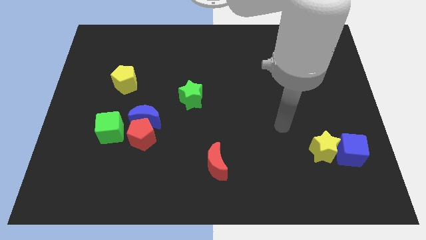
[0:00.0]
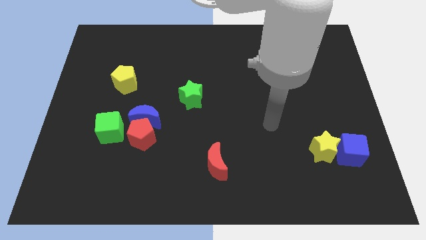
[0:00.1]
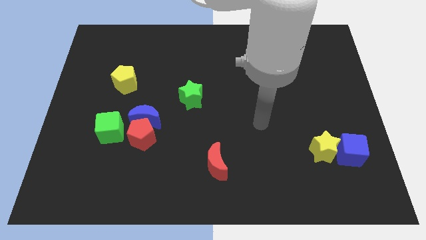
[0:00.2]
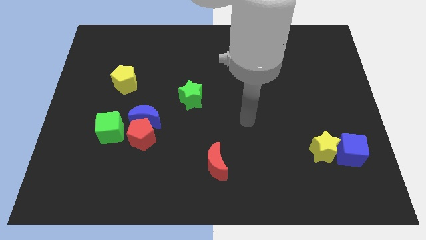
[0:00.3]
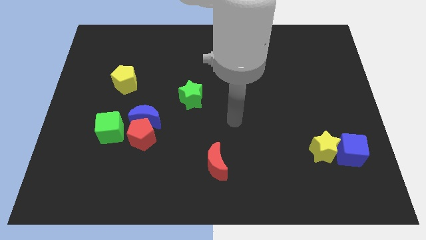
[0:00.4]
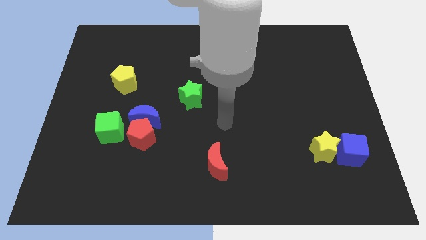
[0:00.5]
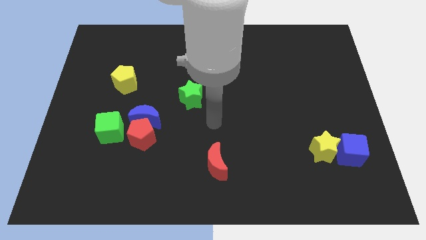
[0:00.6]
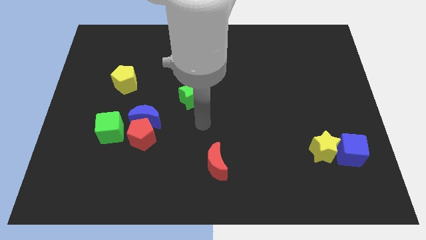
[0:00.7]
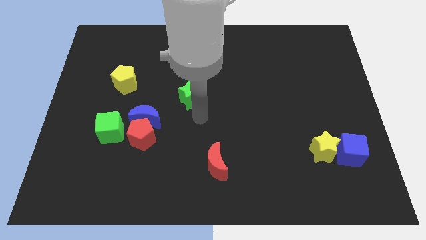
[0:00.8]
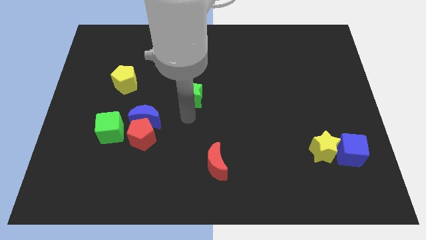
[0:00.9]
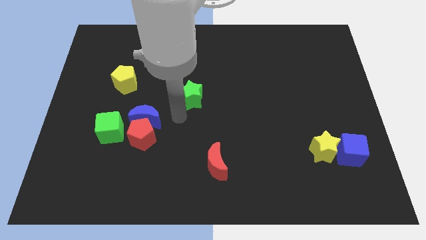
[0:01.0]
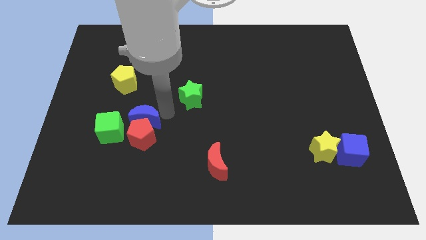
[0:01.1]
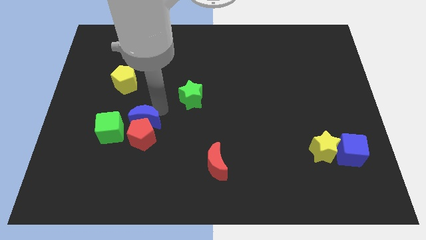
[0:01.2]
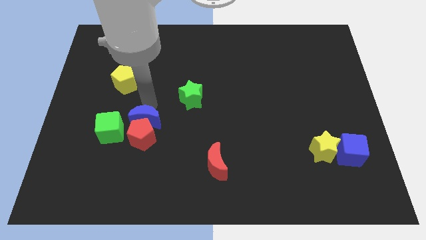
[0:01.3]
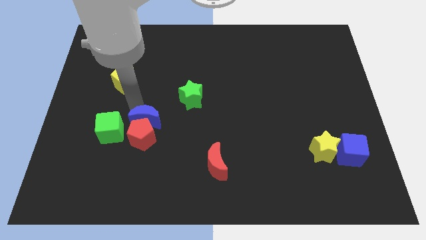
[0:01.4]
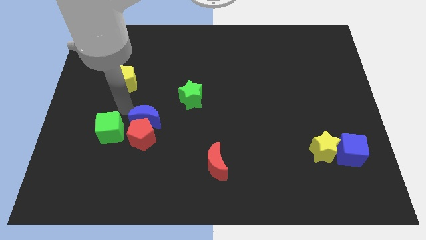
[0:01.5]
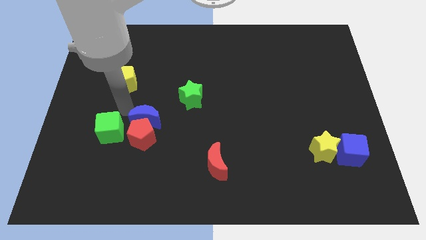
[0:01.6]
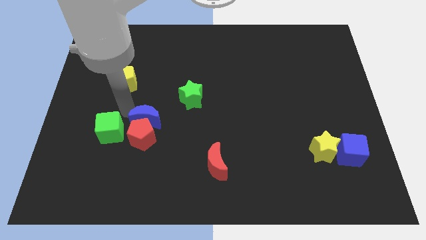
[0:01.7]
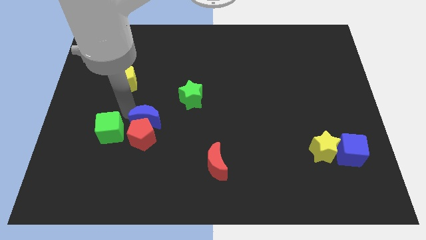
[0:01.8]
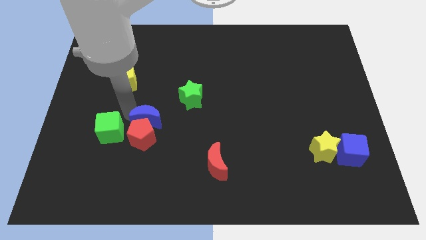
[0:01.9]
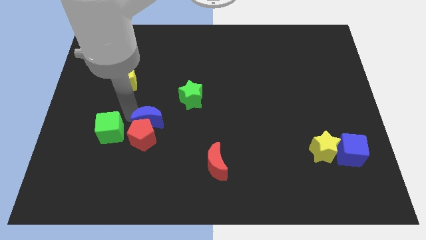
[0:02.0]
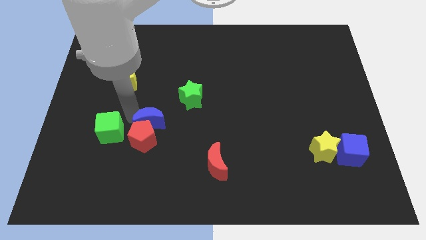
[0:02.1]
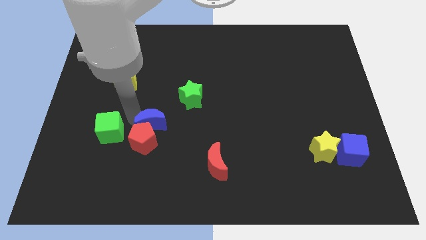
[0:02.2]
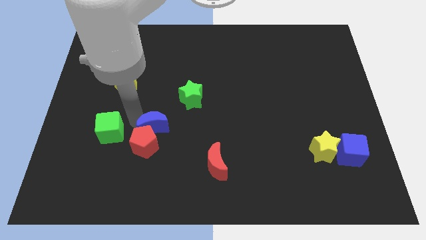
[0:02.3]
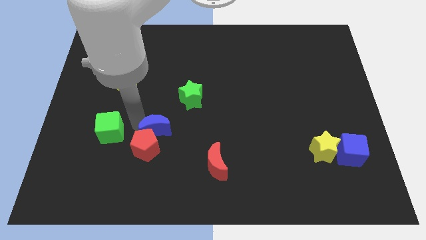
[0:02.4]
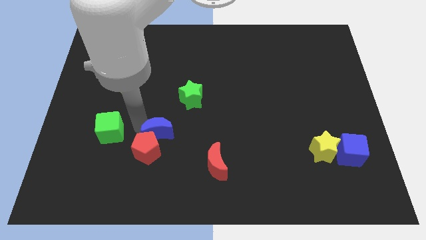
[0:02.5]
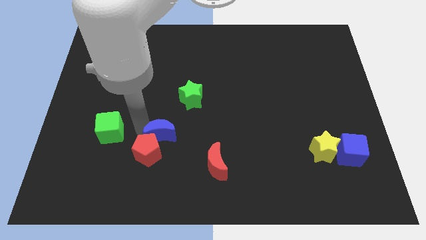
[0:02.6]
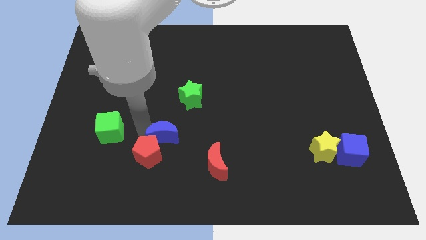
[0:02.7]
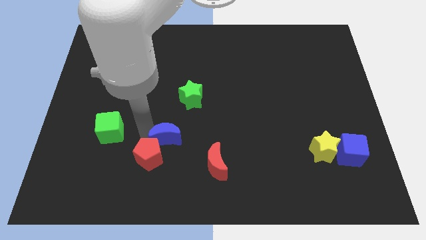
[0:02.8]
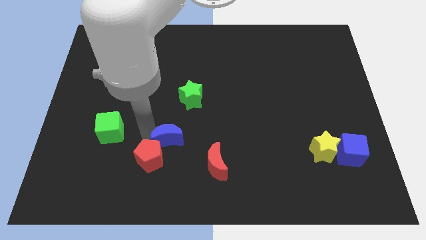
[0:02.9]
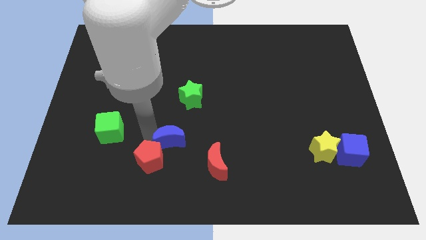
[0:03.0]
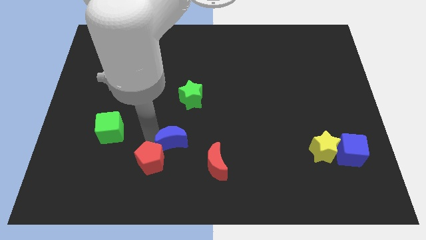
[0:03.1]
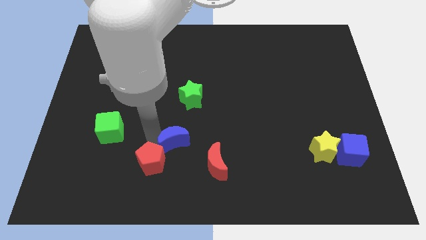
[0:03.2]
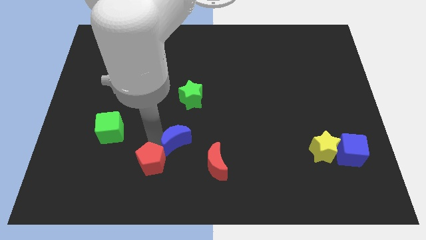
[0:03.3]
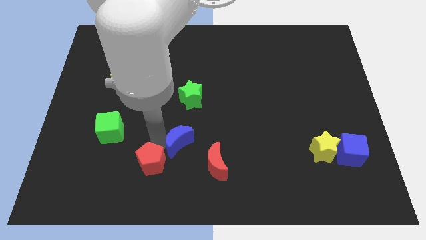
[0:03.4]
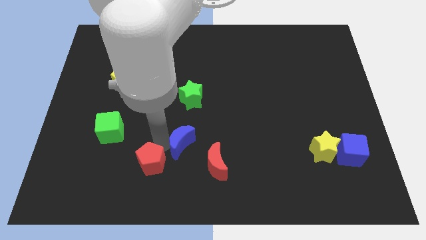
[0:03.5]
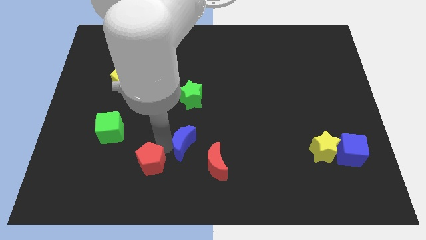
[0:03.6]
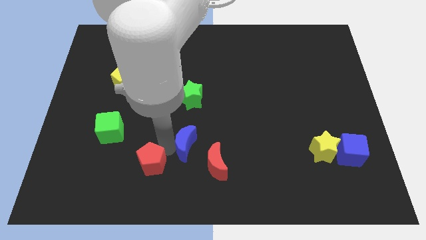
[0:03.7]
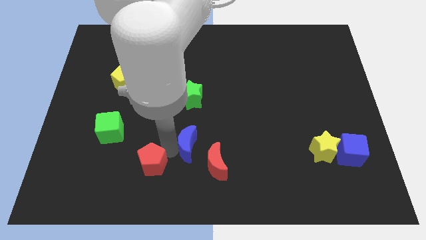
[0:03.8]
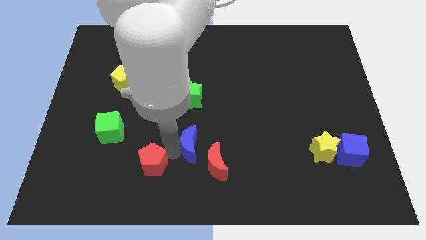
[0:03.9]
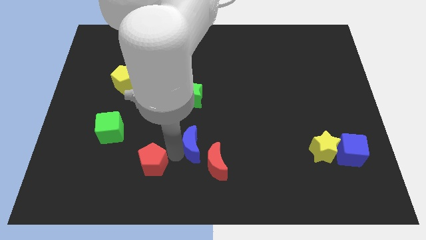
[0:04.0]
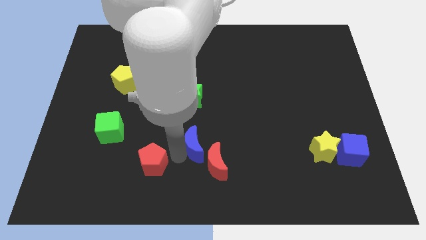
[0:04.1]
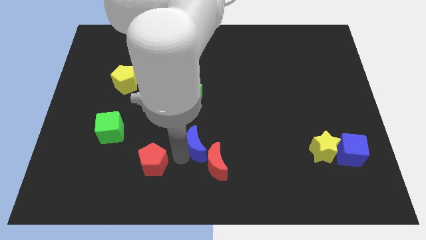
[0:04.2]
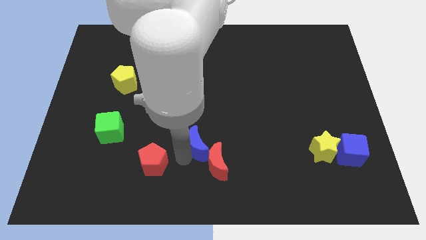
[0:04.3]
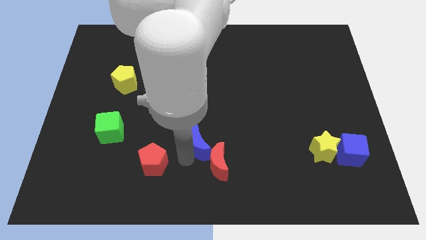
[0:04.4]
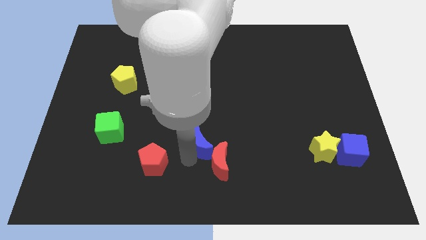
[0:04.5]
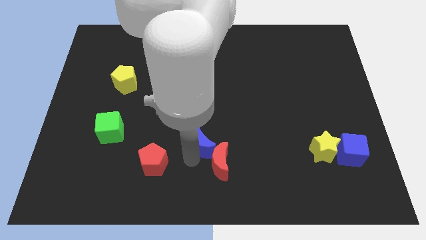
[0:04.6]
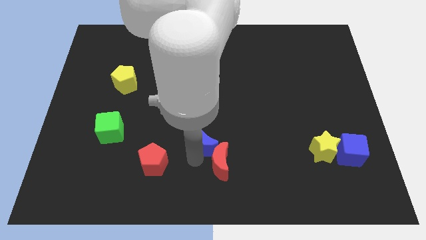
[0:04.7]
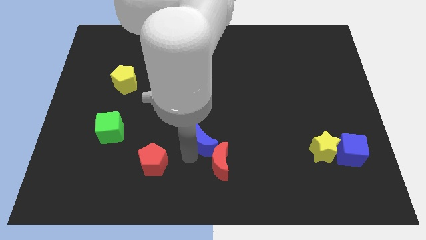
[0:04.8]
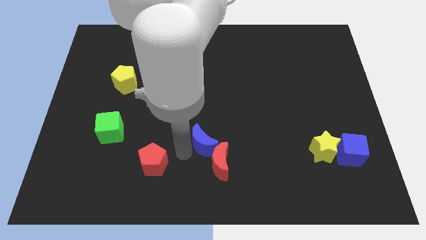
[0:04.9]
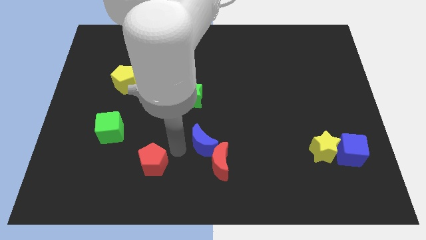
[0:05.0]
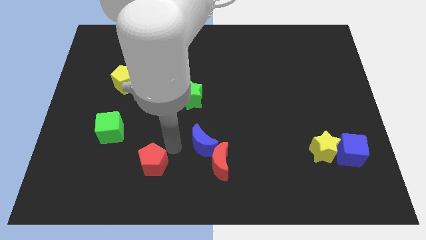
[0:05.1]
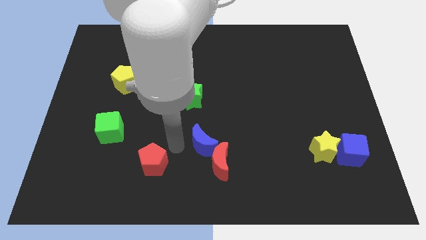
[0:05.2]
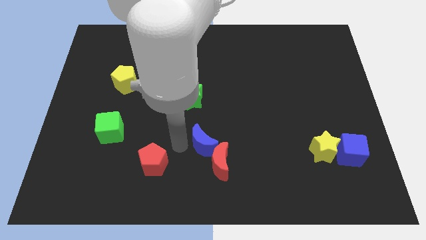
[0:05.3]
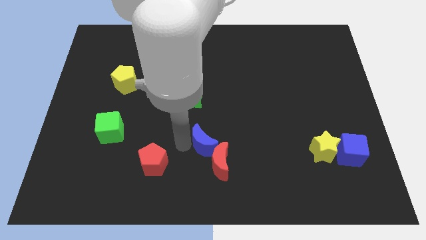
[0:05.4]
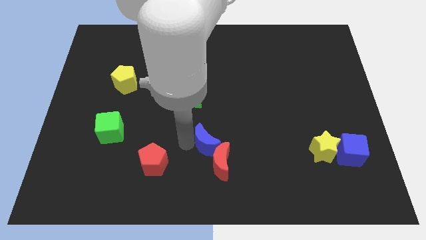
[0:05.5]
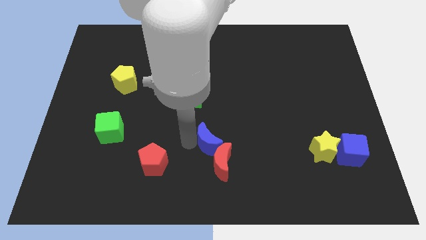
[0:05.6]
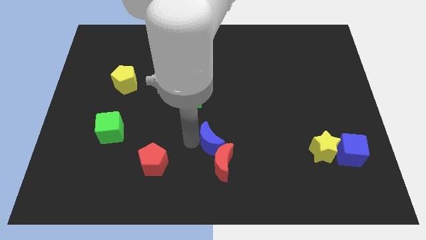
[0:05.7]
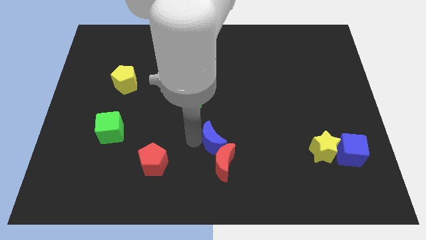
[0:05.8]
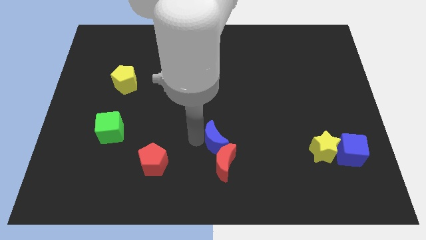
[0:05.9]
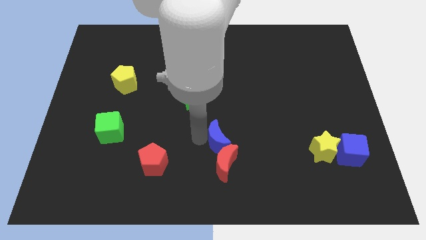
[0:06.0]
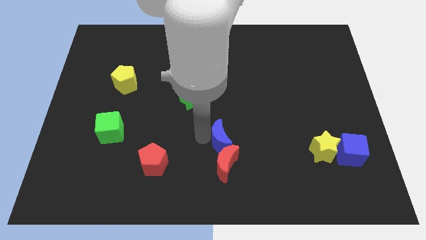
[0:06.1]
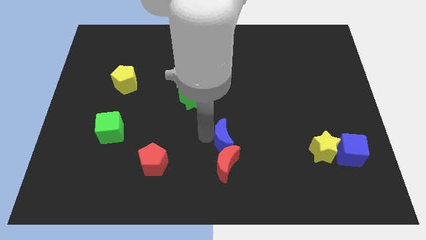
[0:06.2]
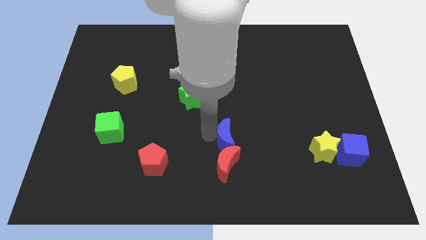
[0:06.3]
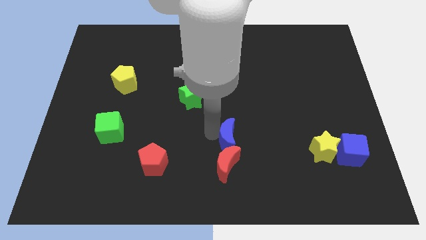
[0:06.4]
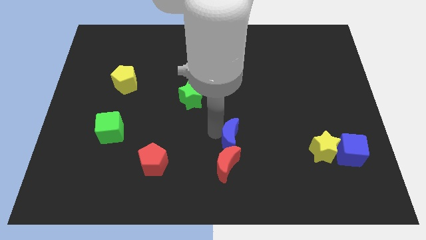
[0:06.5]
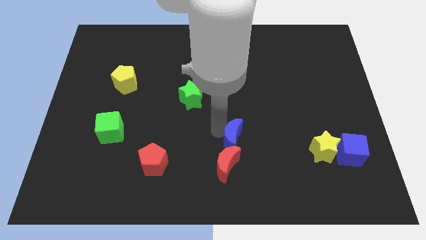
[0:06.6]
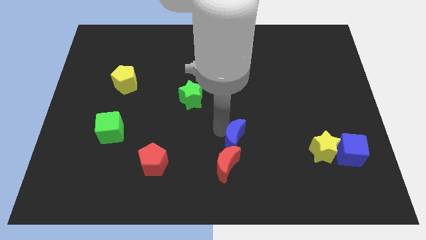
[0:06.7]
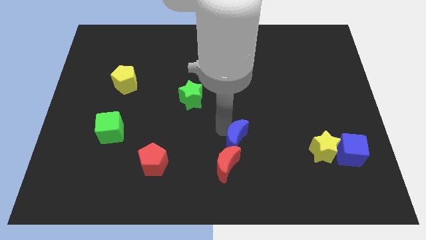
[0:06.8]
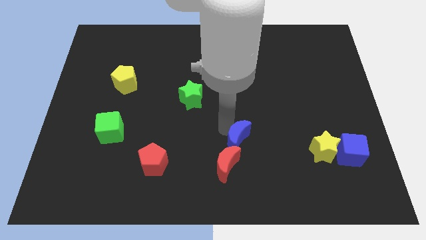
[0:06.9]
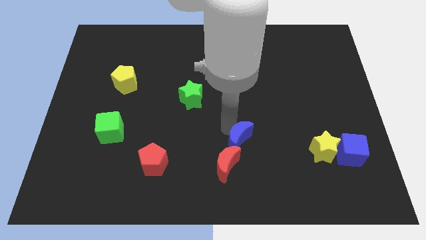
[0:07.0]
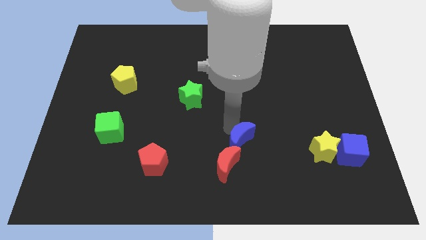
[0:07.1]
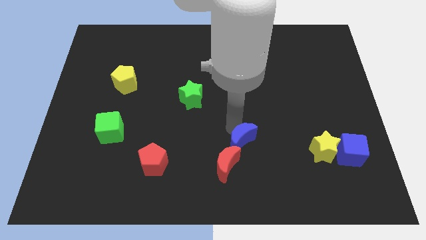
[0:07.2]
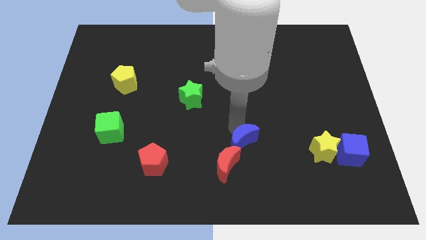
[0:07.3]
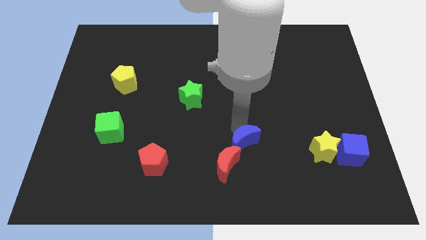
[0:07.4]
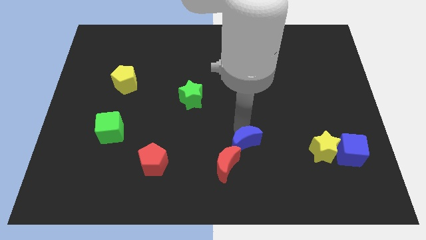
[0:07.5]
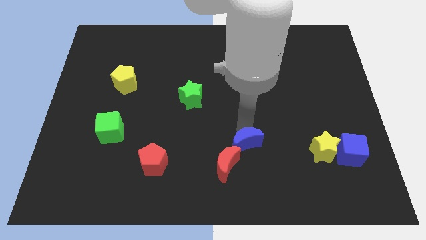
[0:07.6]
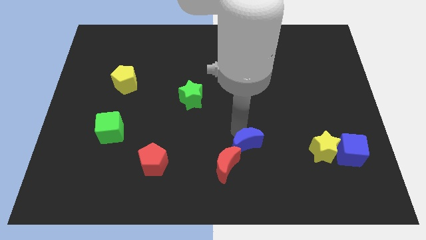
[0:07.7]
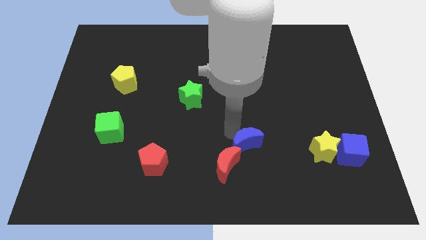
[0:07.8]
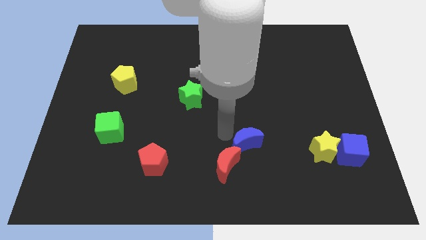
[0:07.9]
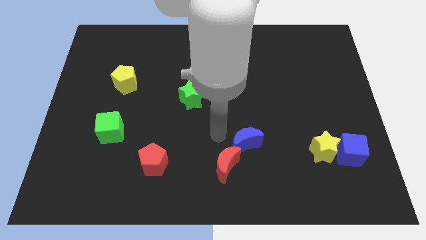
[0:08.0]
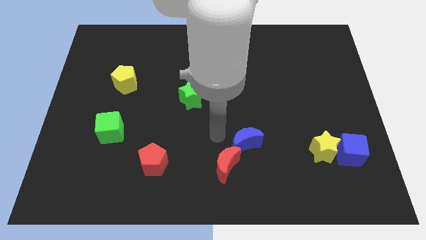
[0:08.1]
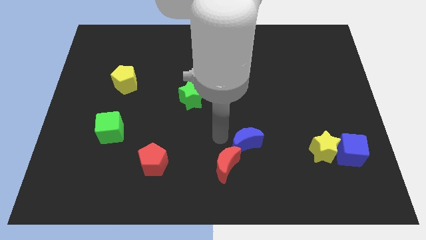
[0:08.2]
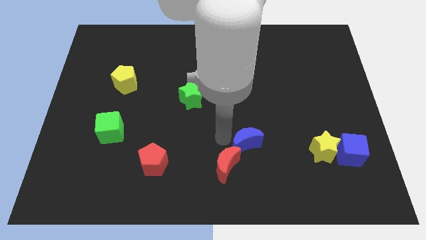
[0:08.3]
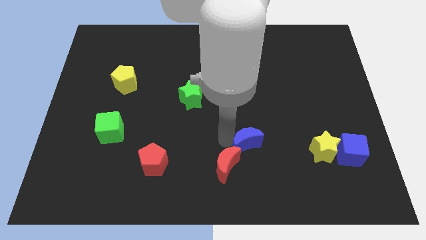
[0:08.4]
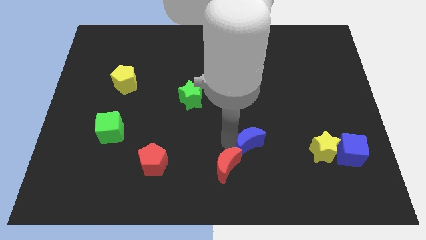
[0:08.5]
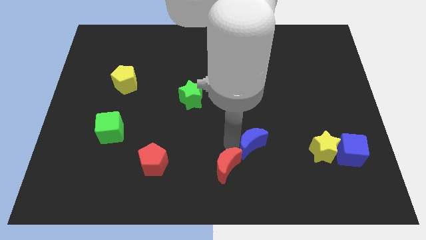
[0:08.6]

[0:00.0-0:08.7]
move the blue moon left of the yellow star
